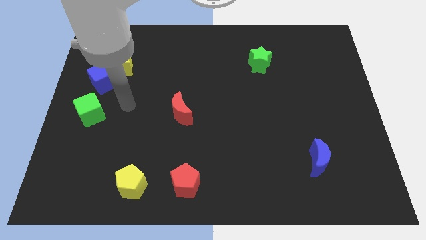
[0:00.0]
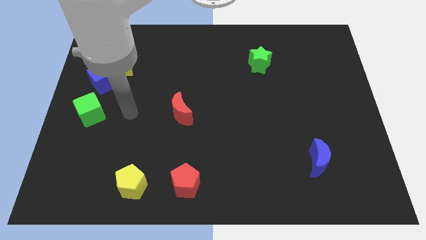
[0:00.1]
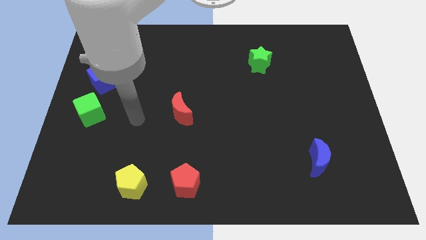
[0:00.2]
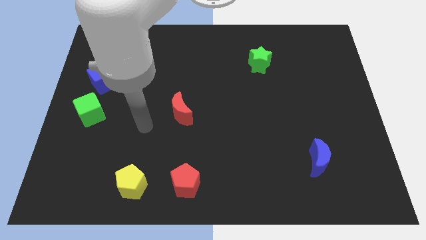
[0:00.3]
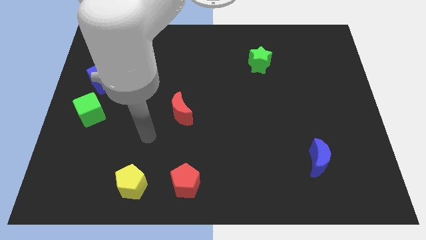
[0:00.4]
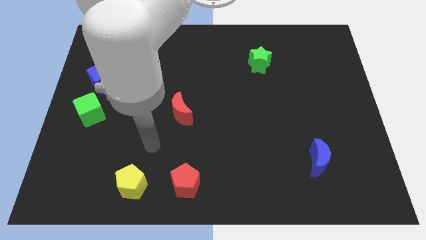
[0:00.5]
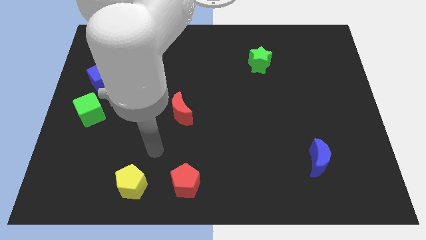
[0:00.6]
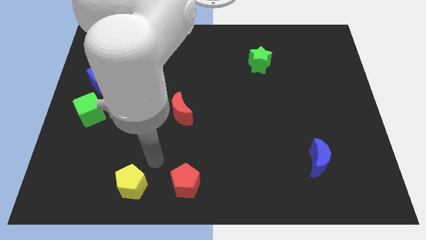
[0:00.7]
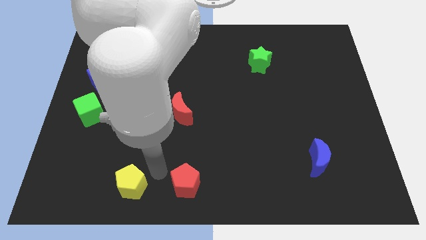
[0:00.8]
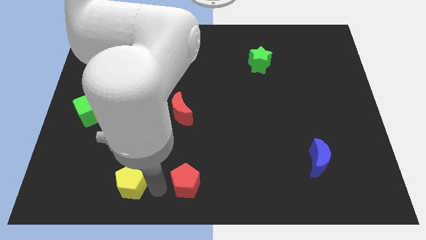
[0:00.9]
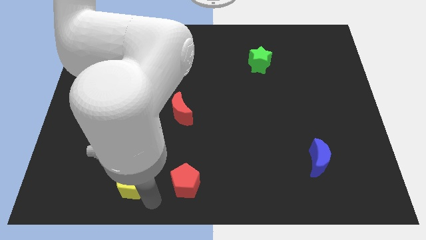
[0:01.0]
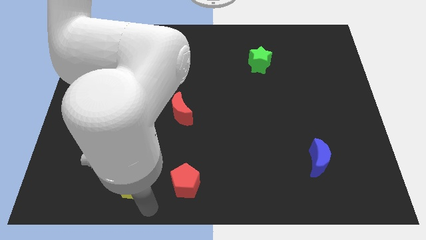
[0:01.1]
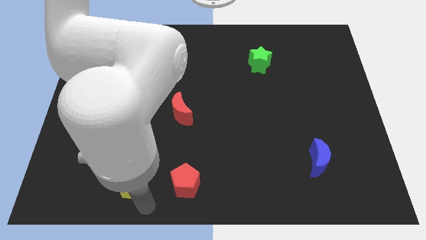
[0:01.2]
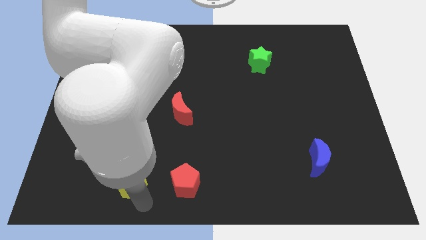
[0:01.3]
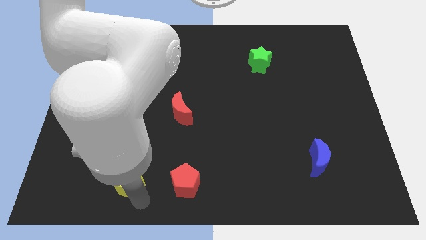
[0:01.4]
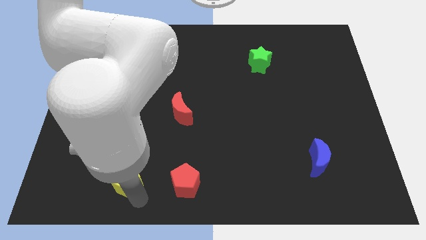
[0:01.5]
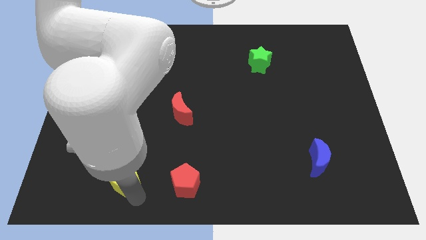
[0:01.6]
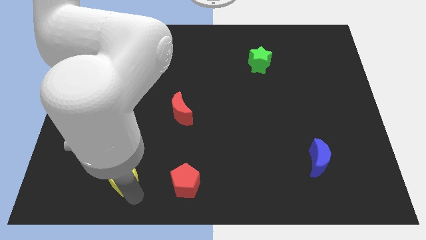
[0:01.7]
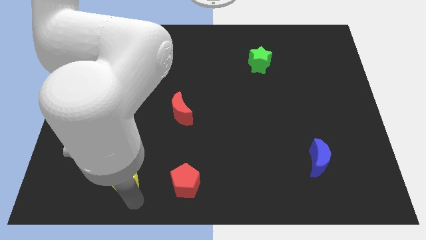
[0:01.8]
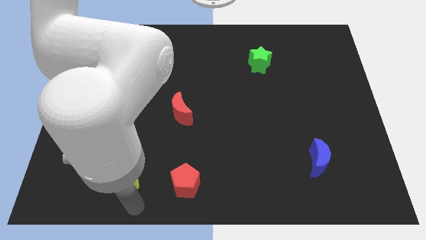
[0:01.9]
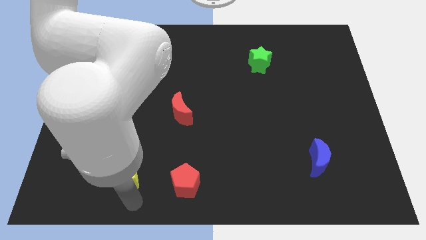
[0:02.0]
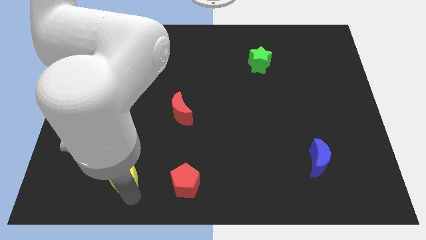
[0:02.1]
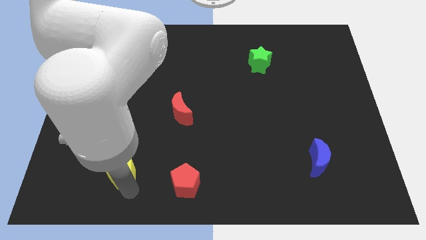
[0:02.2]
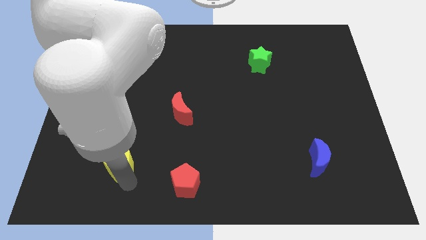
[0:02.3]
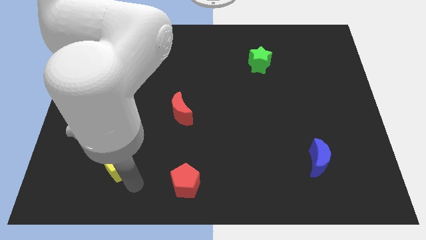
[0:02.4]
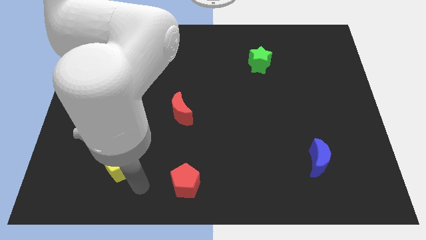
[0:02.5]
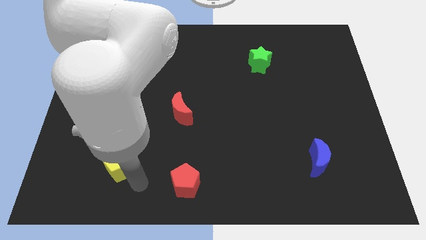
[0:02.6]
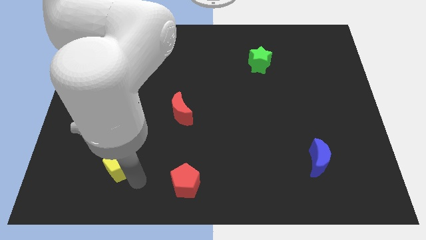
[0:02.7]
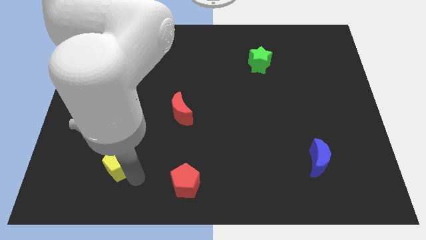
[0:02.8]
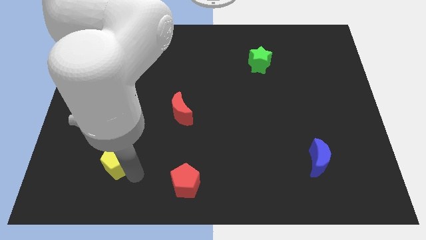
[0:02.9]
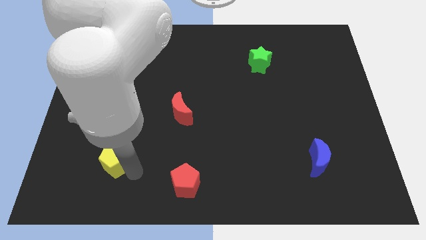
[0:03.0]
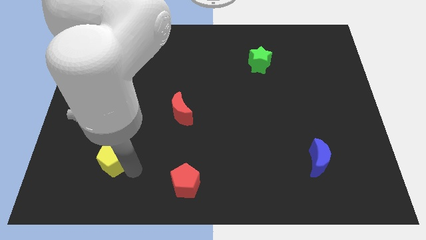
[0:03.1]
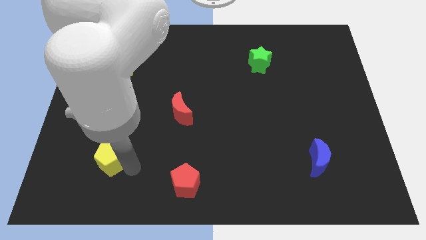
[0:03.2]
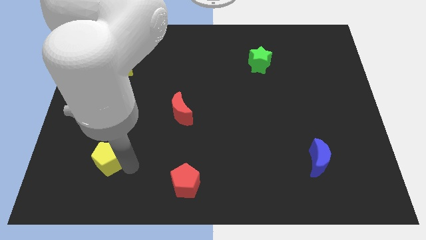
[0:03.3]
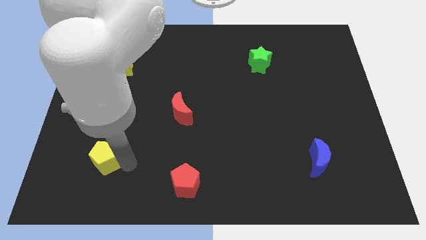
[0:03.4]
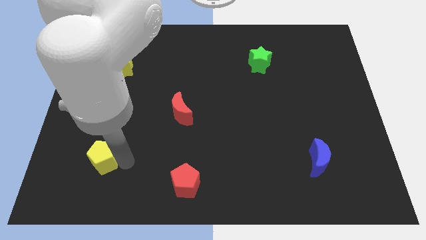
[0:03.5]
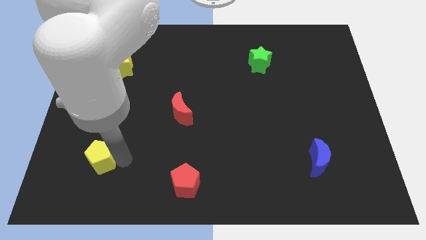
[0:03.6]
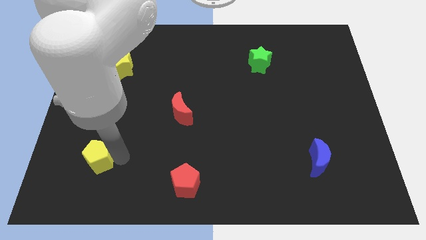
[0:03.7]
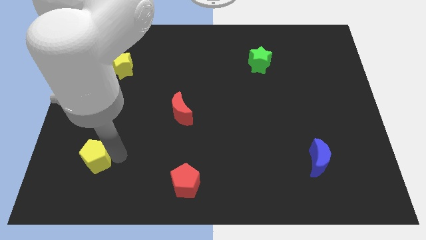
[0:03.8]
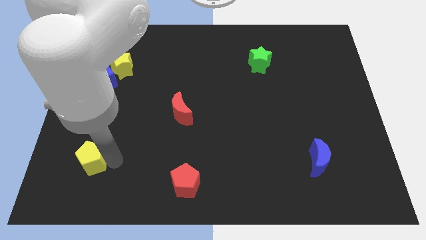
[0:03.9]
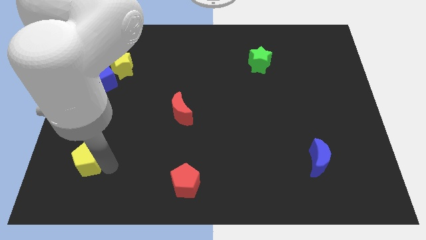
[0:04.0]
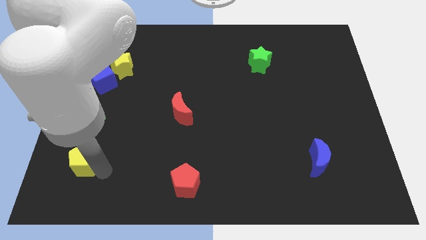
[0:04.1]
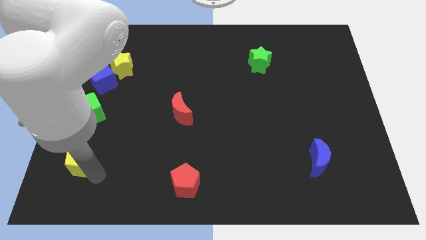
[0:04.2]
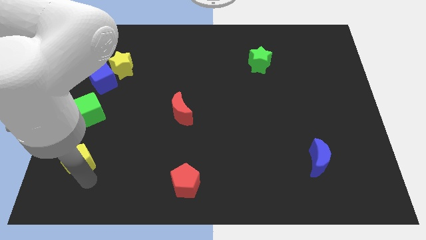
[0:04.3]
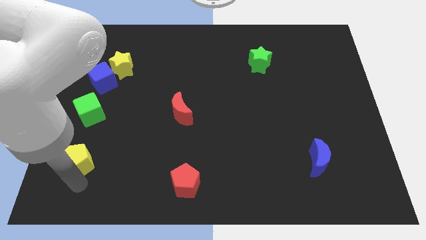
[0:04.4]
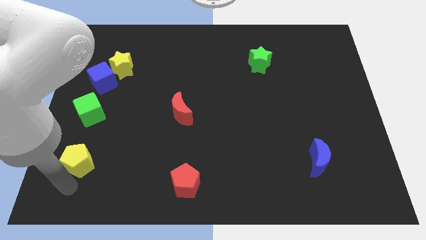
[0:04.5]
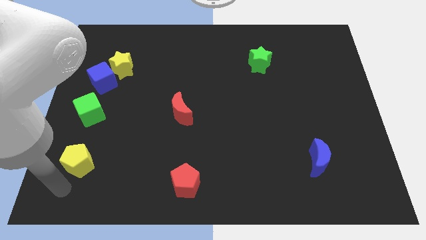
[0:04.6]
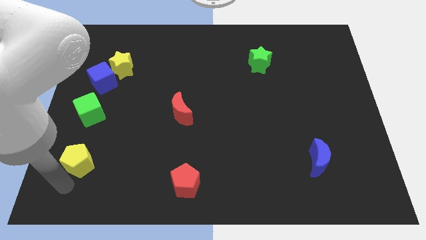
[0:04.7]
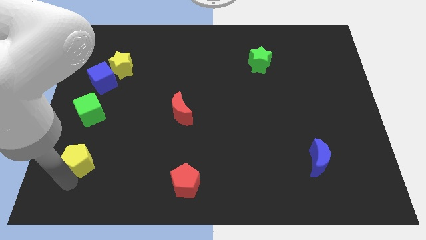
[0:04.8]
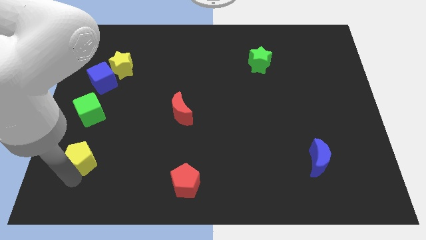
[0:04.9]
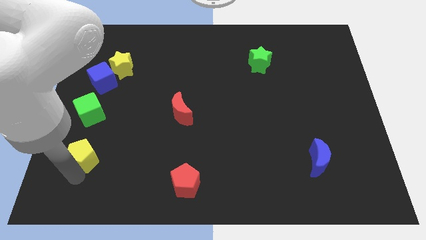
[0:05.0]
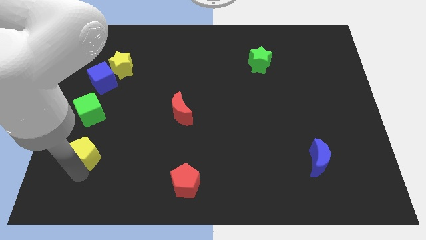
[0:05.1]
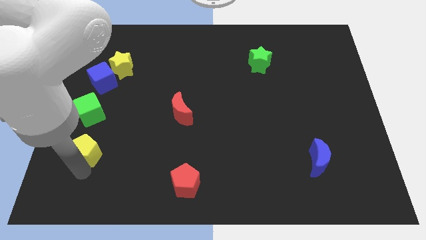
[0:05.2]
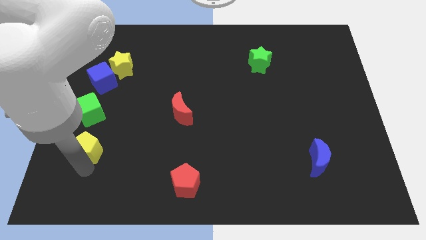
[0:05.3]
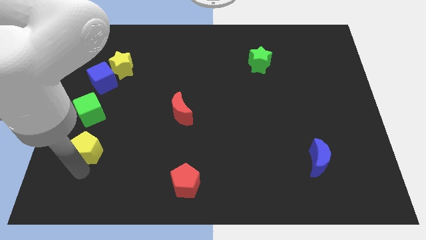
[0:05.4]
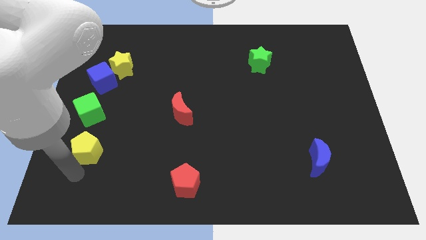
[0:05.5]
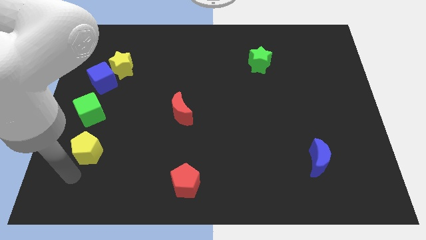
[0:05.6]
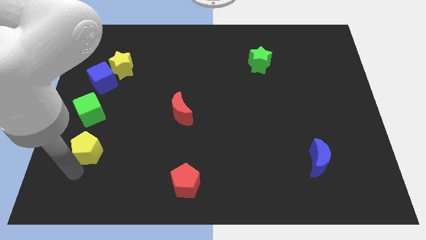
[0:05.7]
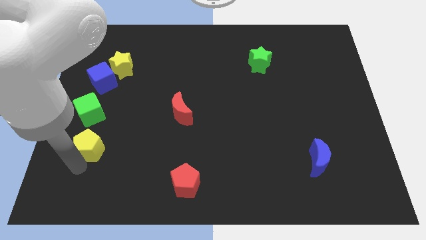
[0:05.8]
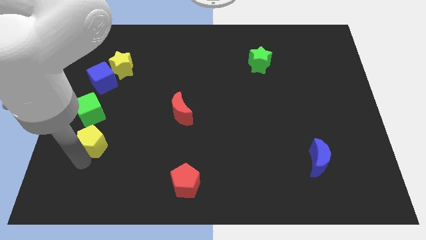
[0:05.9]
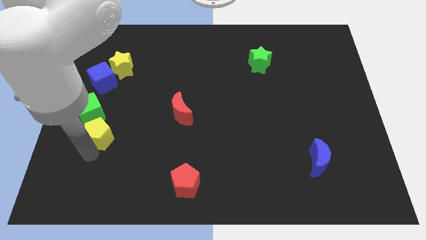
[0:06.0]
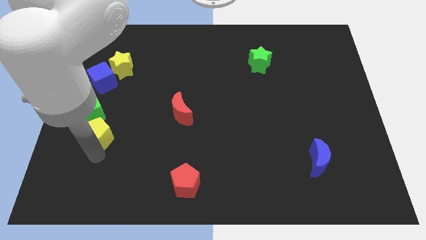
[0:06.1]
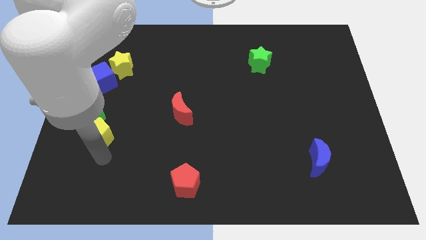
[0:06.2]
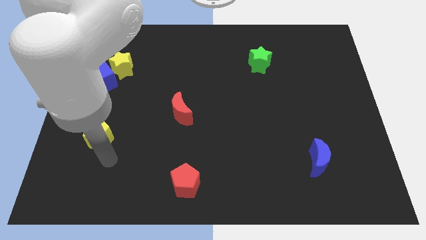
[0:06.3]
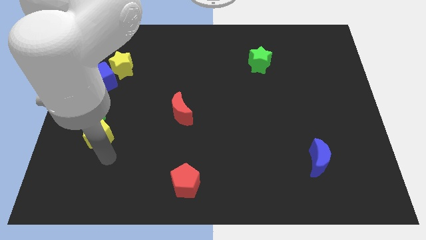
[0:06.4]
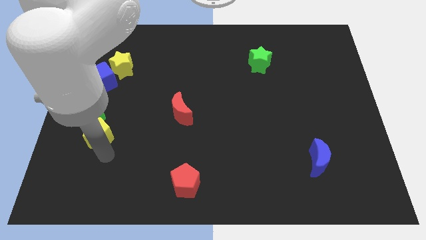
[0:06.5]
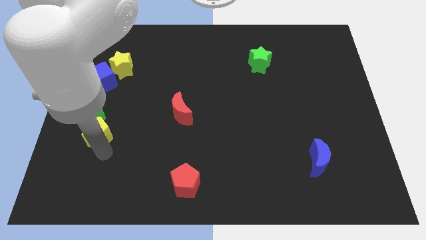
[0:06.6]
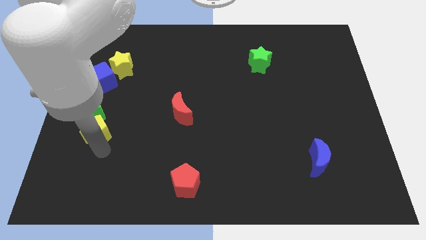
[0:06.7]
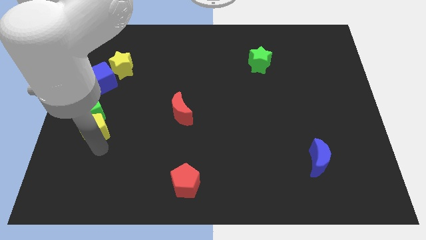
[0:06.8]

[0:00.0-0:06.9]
move the yellow pentagon next to the green cube

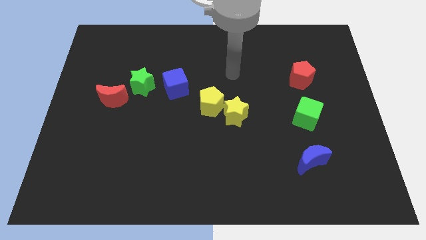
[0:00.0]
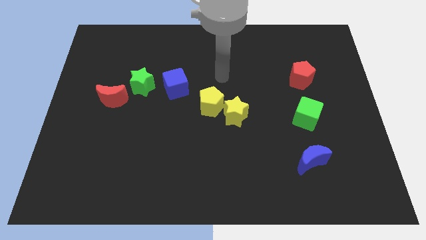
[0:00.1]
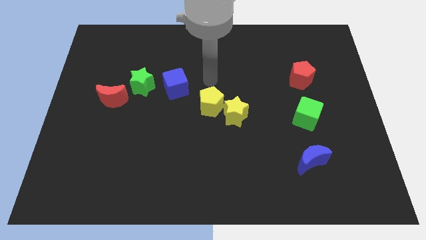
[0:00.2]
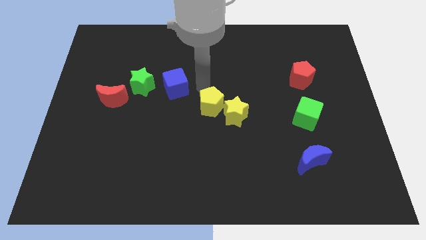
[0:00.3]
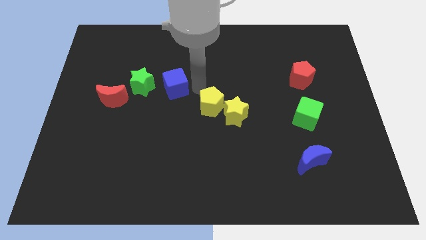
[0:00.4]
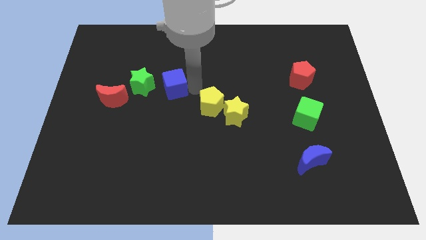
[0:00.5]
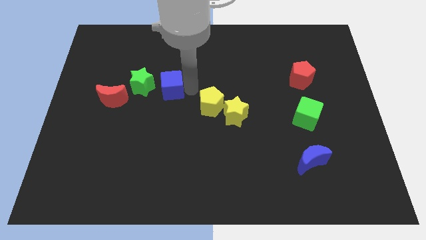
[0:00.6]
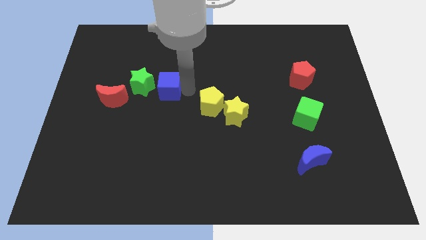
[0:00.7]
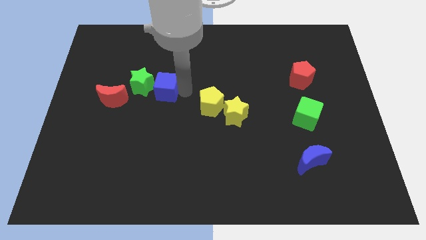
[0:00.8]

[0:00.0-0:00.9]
move the blue cube close to the green star
